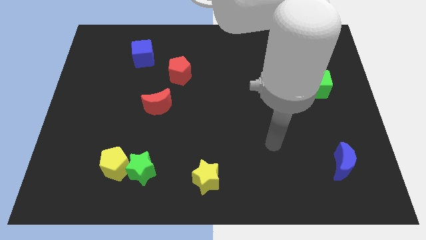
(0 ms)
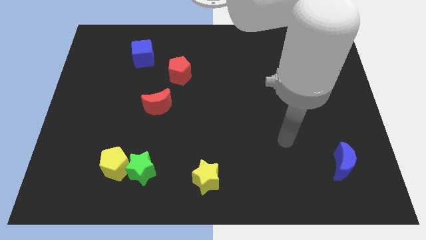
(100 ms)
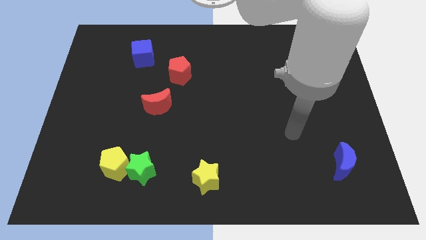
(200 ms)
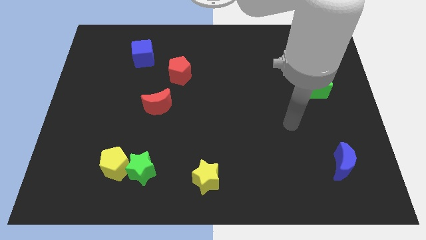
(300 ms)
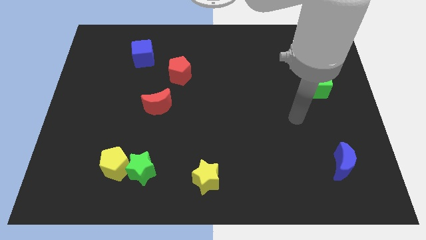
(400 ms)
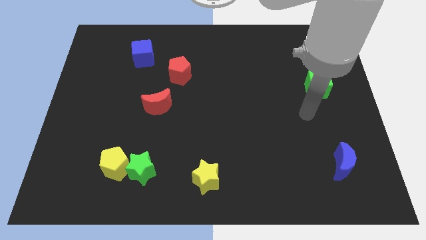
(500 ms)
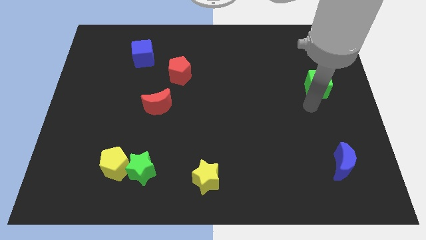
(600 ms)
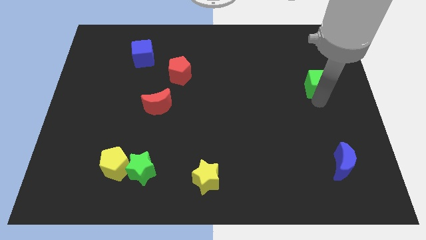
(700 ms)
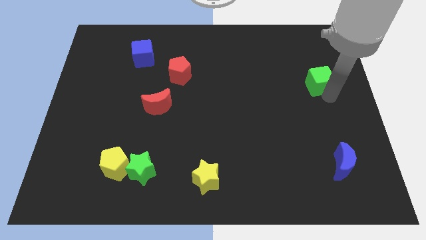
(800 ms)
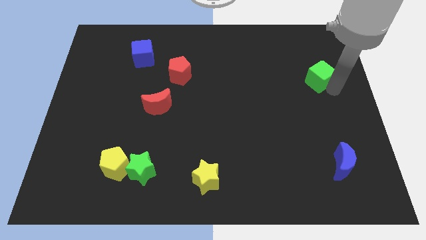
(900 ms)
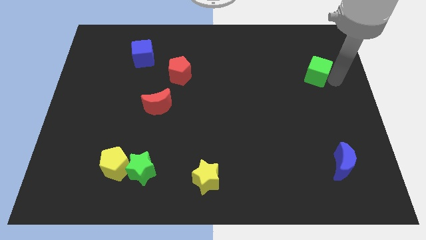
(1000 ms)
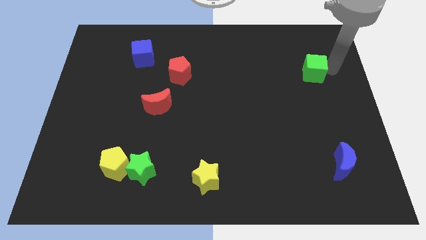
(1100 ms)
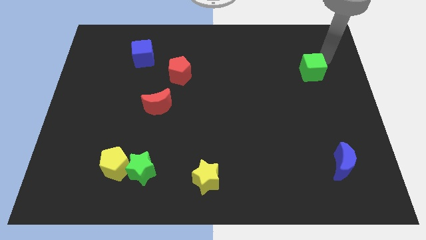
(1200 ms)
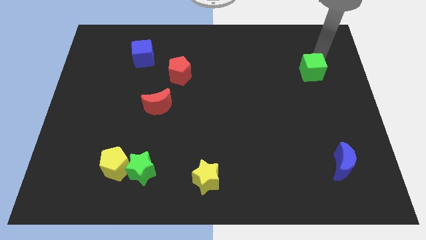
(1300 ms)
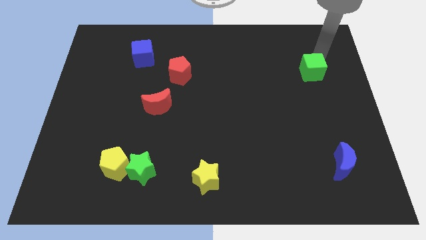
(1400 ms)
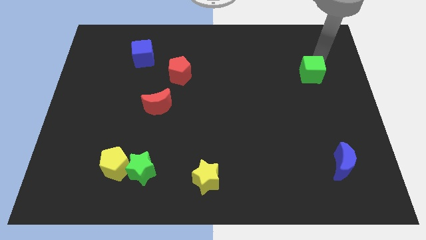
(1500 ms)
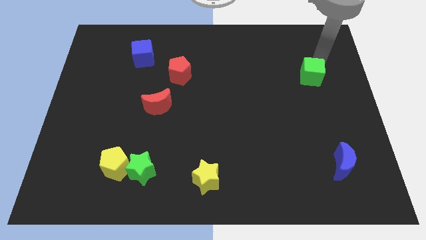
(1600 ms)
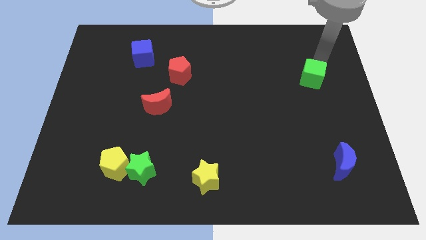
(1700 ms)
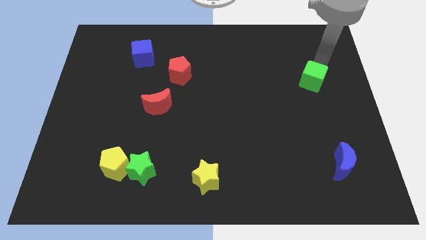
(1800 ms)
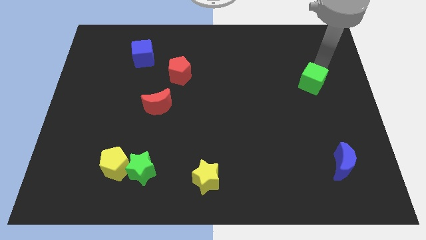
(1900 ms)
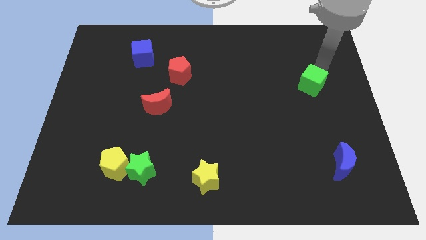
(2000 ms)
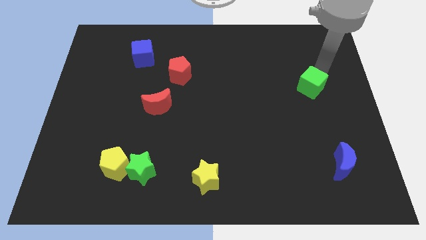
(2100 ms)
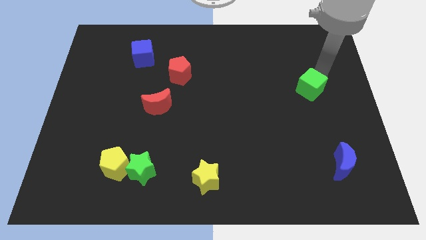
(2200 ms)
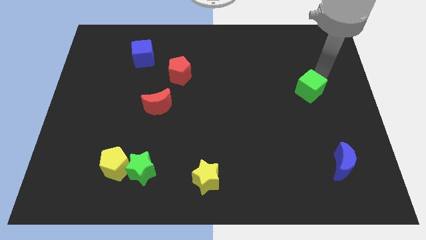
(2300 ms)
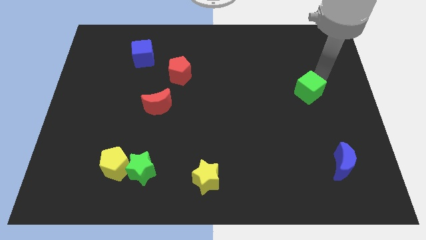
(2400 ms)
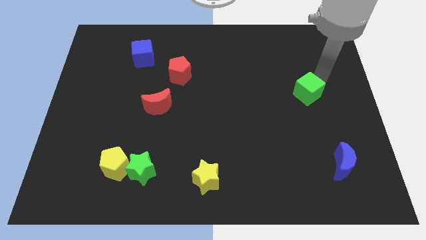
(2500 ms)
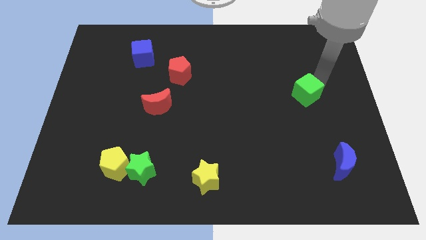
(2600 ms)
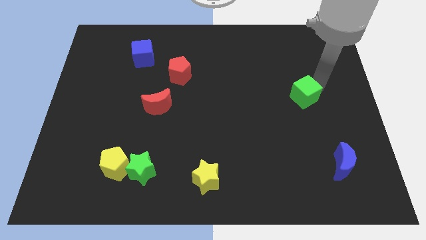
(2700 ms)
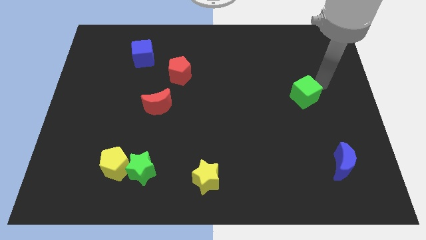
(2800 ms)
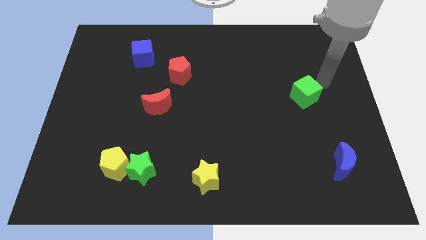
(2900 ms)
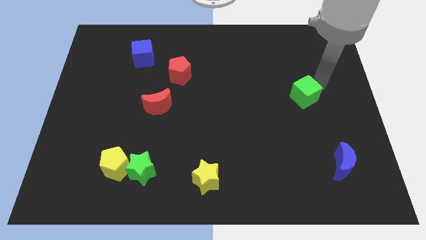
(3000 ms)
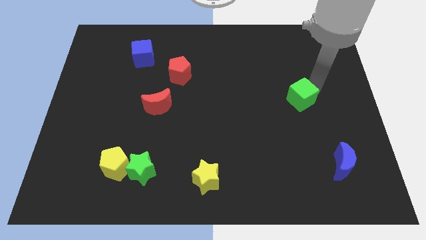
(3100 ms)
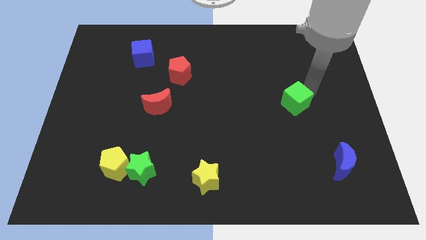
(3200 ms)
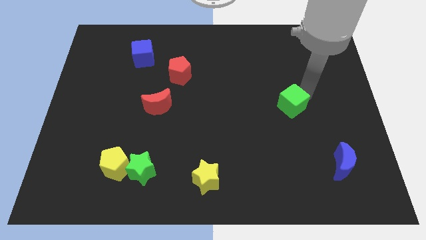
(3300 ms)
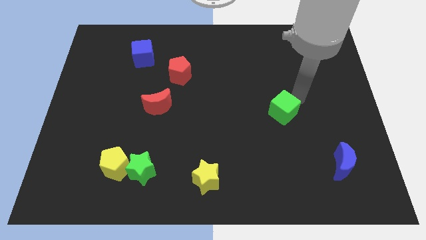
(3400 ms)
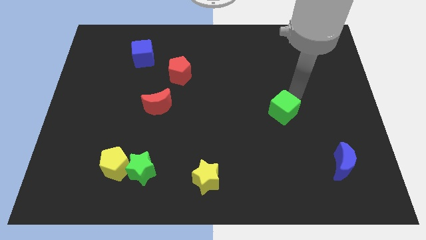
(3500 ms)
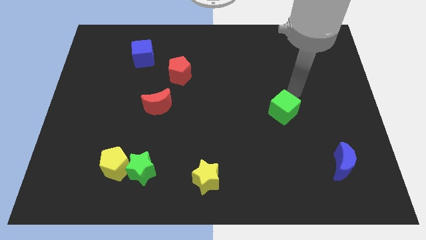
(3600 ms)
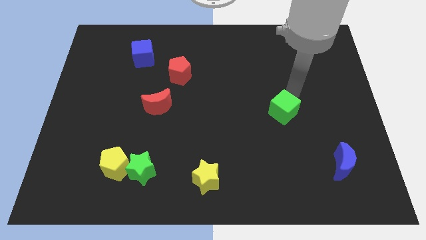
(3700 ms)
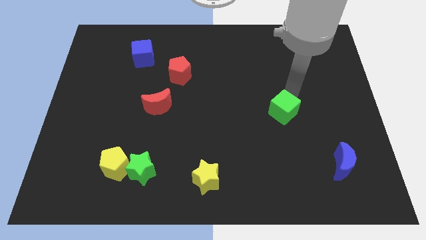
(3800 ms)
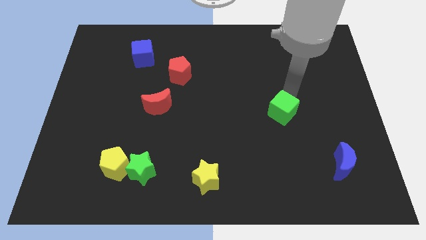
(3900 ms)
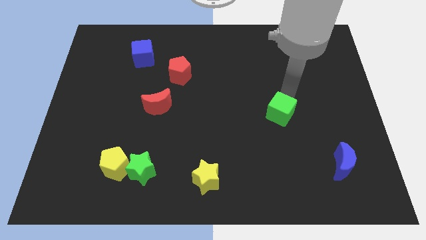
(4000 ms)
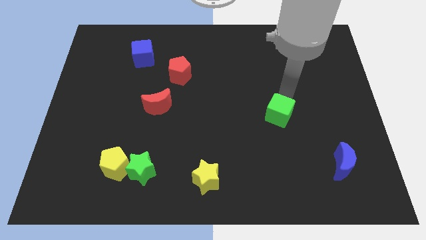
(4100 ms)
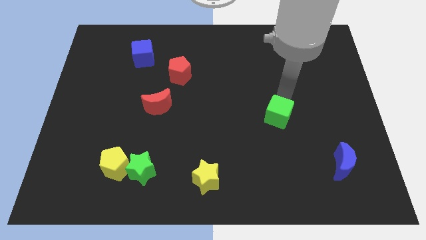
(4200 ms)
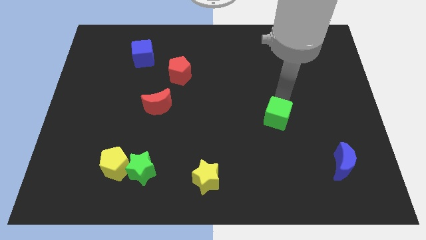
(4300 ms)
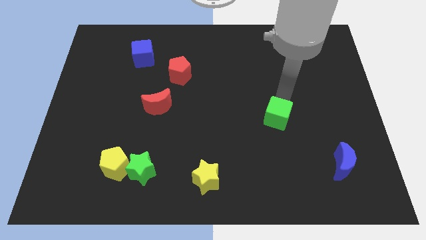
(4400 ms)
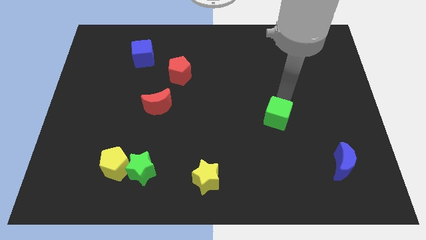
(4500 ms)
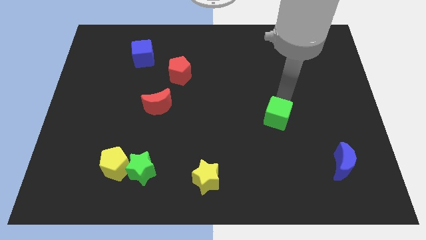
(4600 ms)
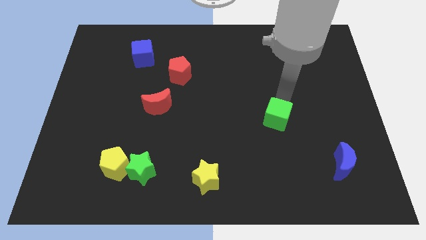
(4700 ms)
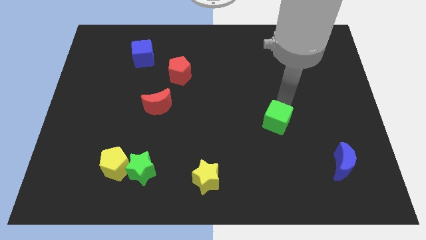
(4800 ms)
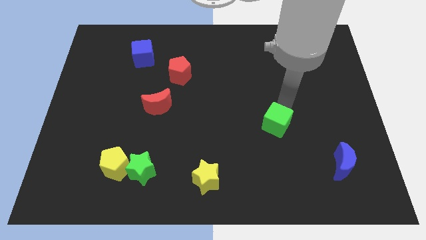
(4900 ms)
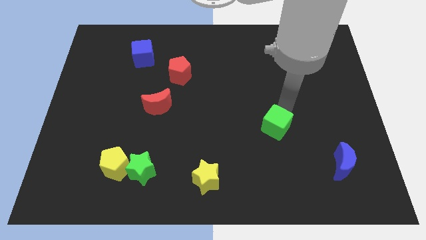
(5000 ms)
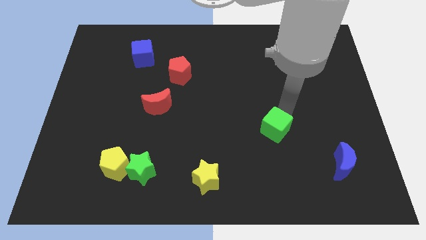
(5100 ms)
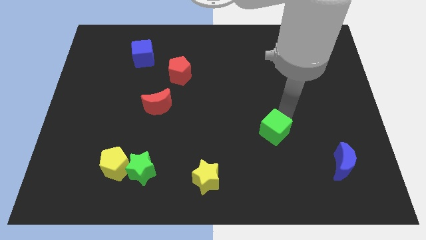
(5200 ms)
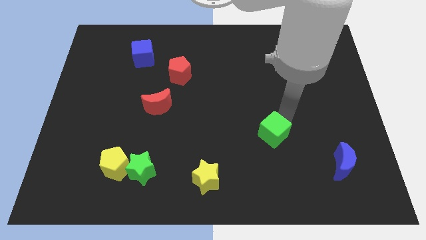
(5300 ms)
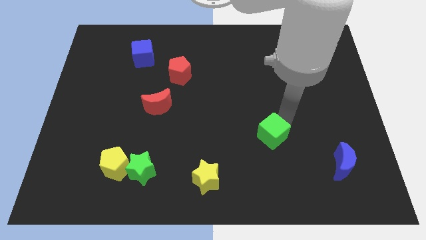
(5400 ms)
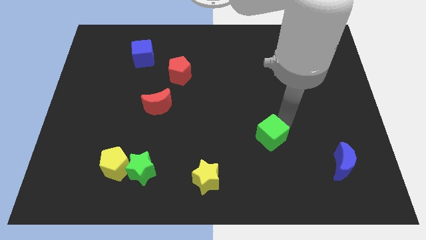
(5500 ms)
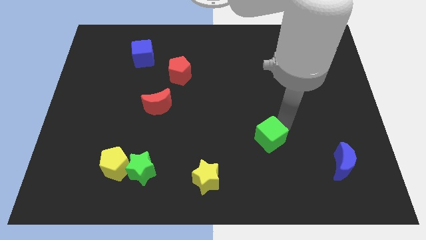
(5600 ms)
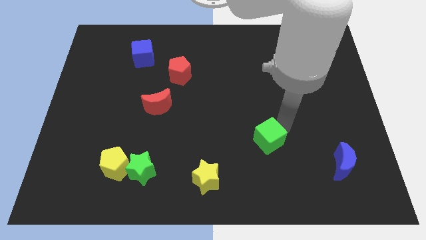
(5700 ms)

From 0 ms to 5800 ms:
slide the green cube downwards and to the left diagonally

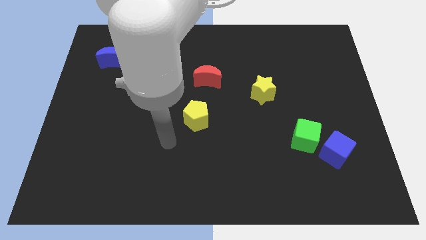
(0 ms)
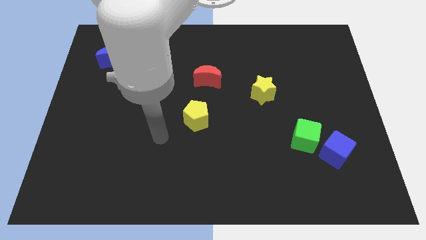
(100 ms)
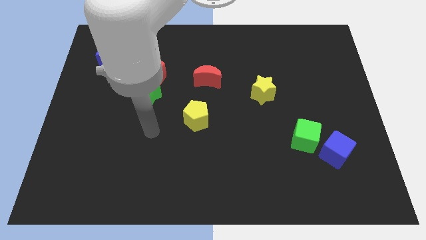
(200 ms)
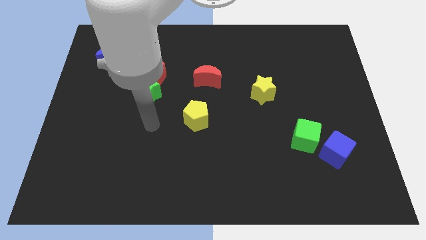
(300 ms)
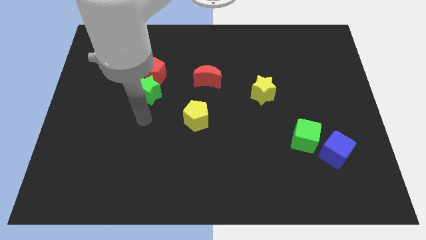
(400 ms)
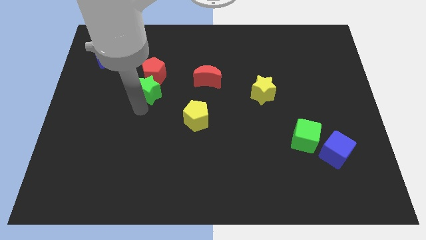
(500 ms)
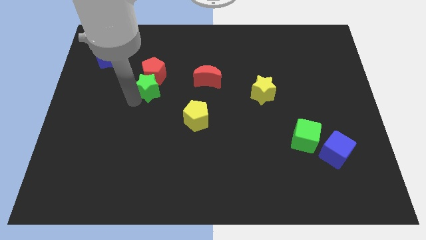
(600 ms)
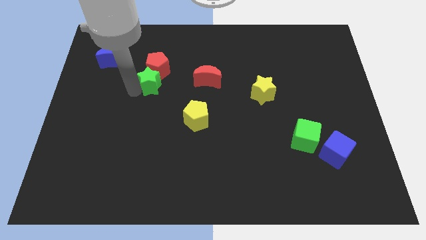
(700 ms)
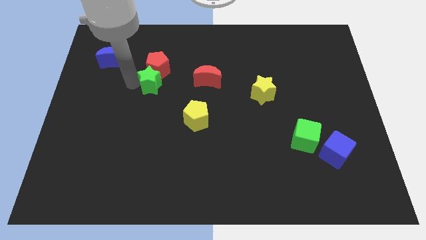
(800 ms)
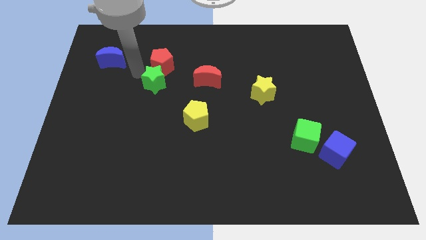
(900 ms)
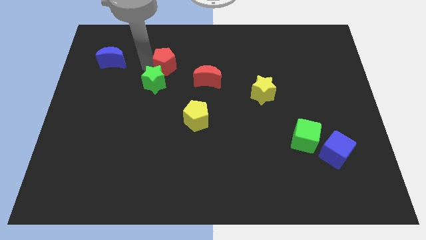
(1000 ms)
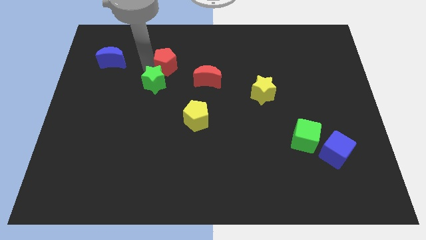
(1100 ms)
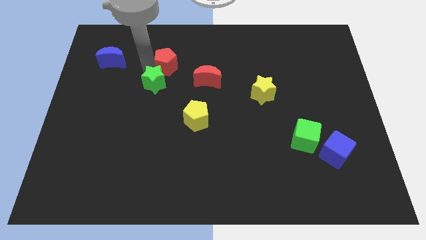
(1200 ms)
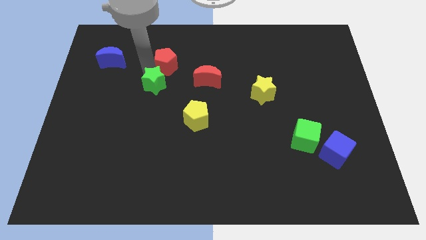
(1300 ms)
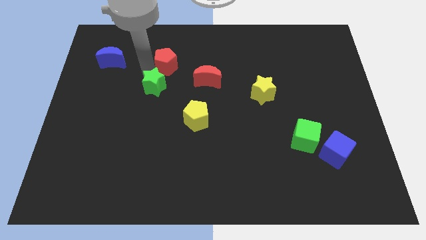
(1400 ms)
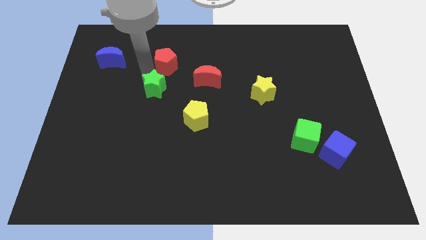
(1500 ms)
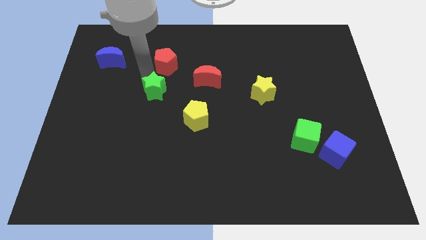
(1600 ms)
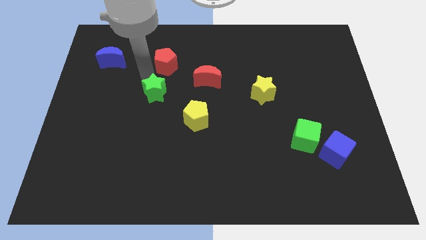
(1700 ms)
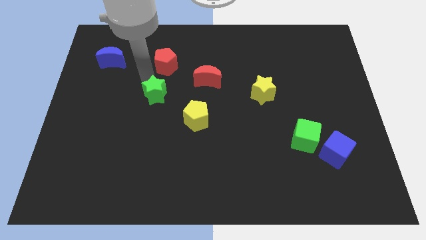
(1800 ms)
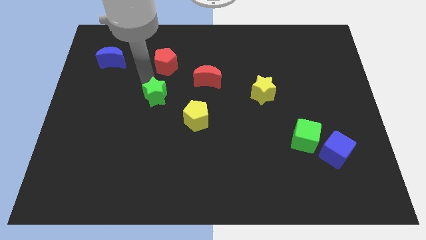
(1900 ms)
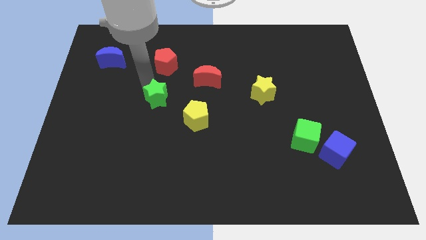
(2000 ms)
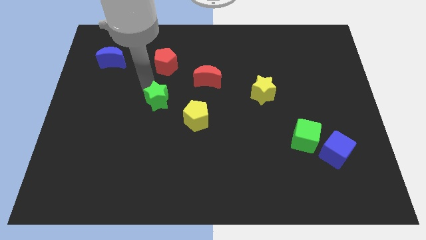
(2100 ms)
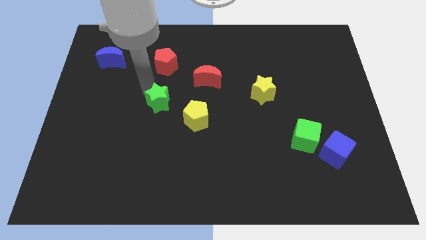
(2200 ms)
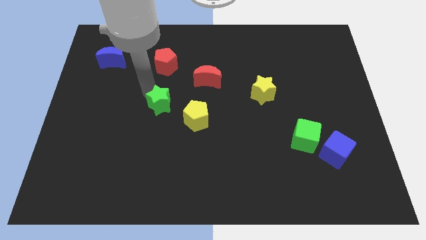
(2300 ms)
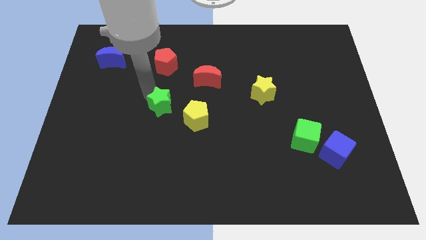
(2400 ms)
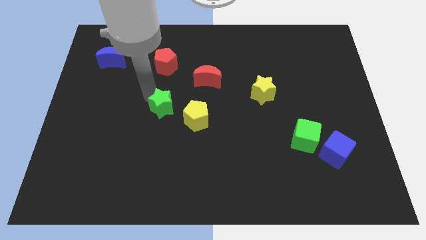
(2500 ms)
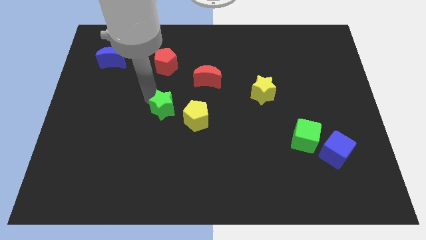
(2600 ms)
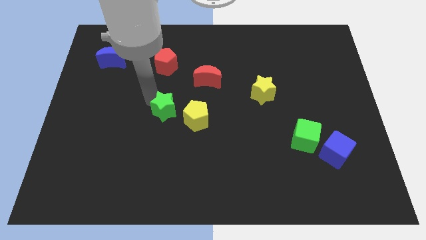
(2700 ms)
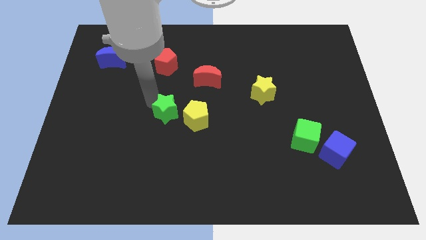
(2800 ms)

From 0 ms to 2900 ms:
slide the green star a little diagonally down and to the right

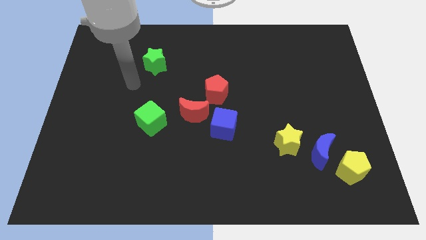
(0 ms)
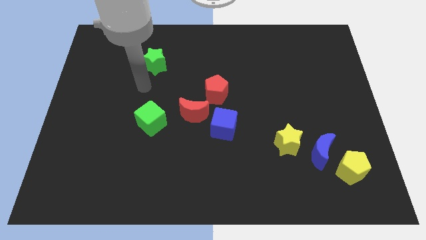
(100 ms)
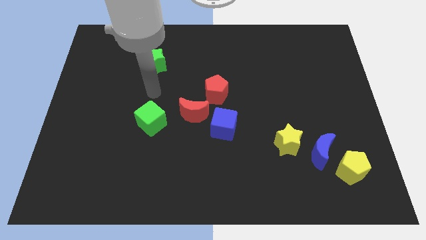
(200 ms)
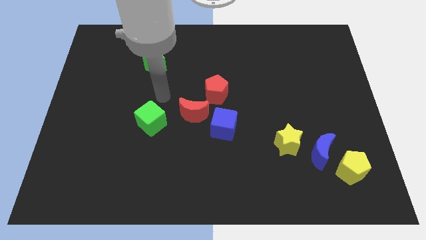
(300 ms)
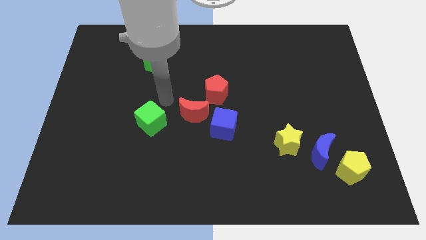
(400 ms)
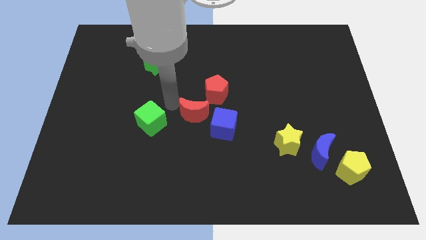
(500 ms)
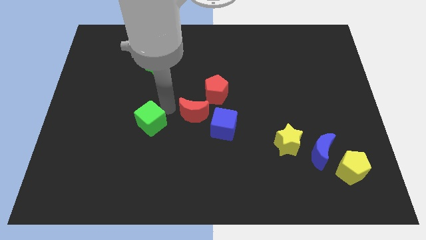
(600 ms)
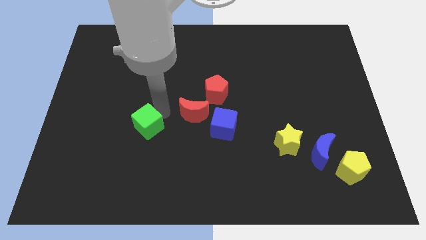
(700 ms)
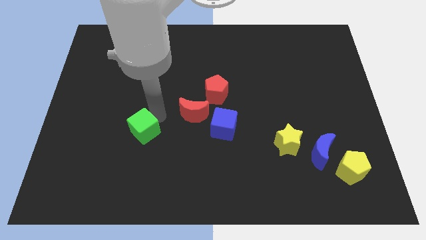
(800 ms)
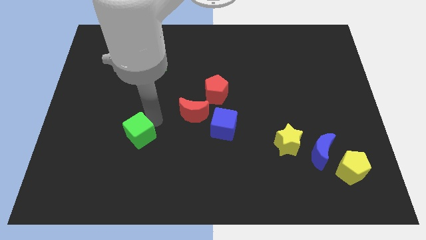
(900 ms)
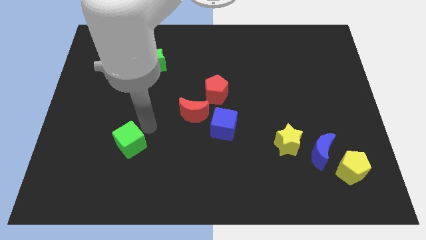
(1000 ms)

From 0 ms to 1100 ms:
slightly slide the green cube downwards and left
